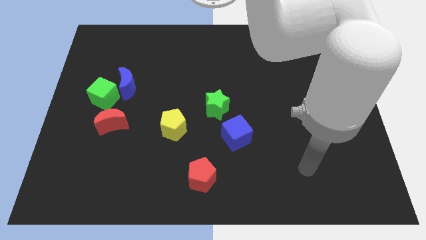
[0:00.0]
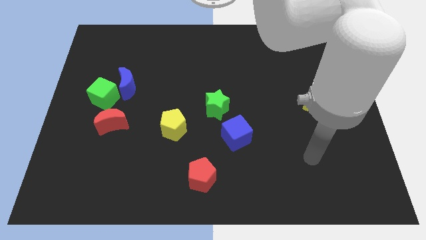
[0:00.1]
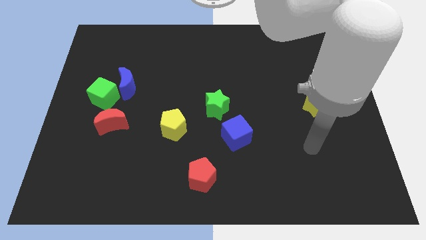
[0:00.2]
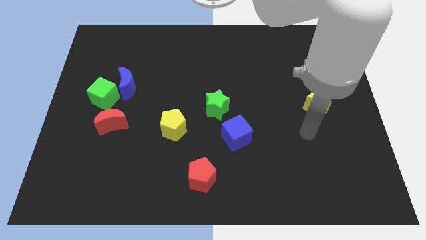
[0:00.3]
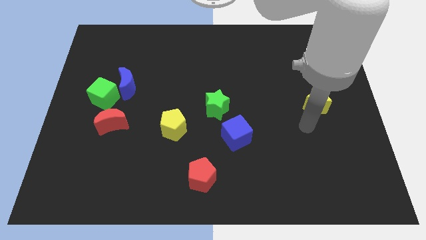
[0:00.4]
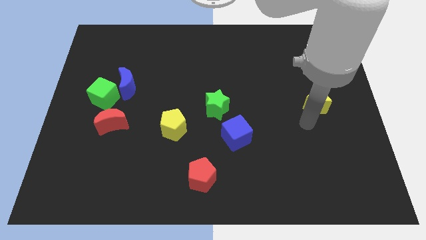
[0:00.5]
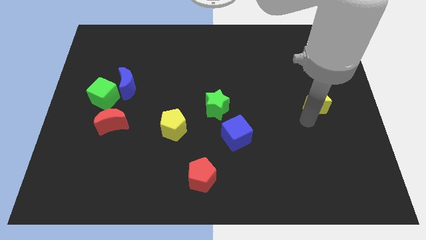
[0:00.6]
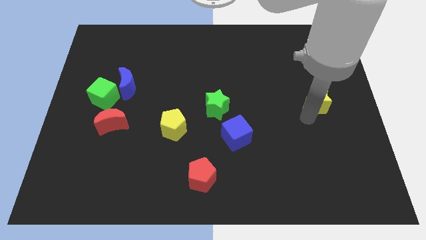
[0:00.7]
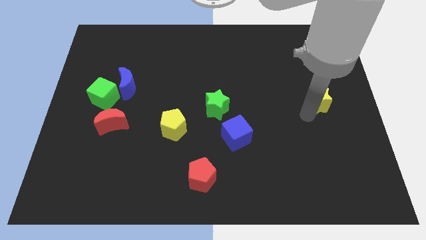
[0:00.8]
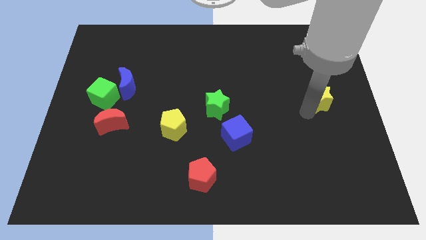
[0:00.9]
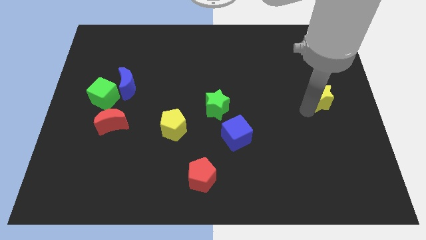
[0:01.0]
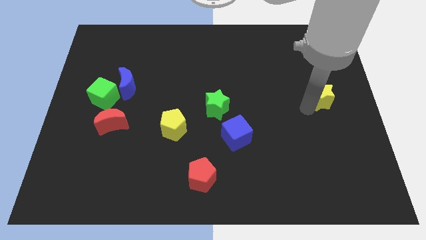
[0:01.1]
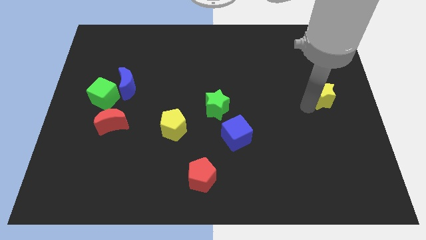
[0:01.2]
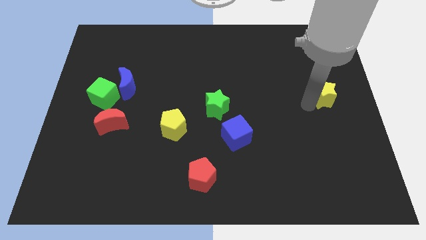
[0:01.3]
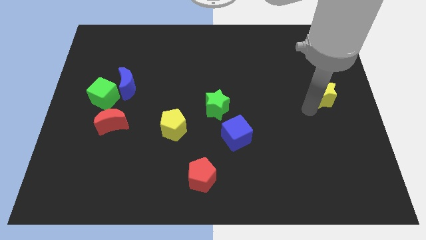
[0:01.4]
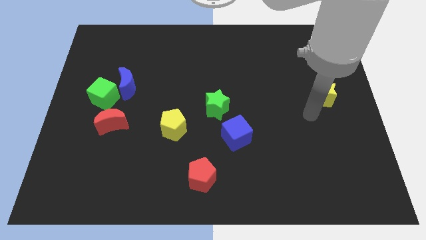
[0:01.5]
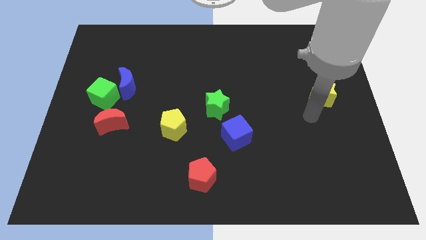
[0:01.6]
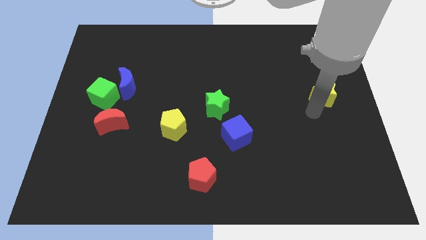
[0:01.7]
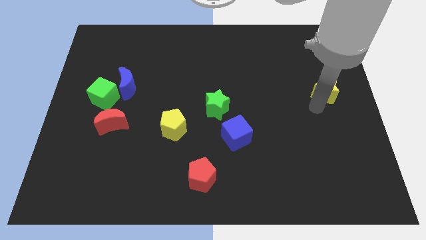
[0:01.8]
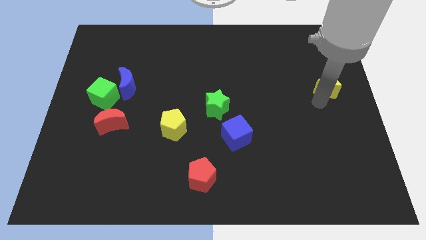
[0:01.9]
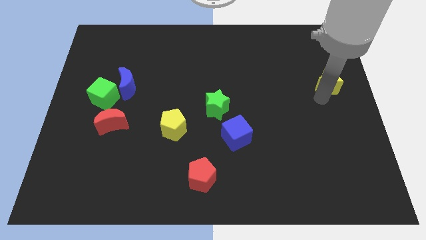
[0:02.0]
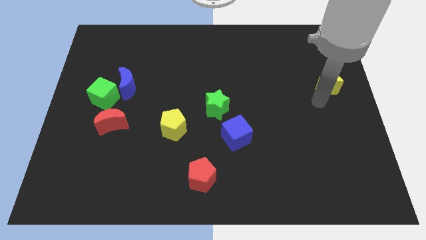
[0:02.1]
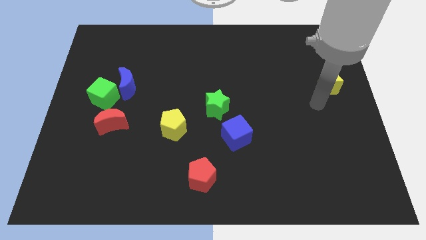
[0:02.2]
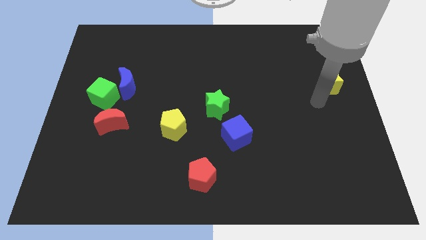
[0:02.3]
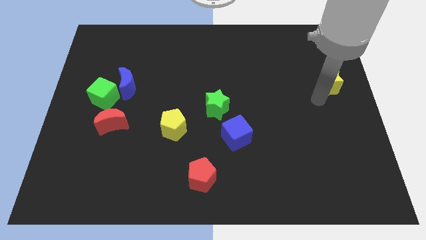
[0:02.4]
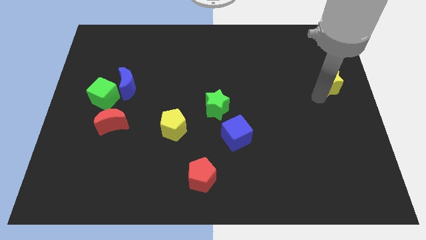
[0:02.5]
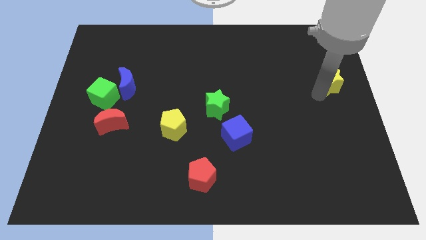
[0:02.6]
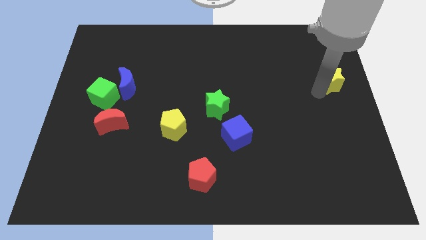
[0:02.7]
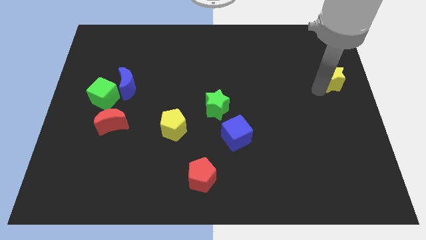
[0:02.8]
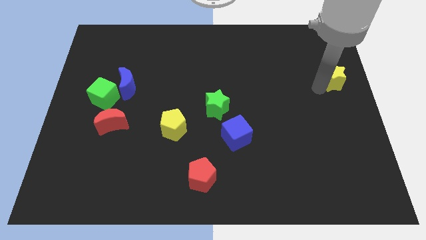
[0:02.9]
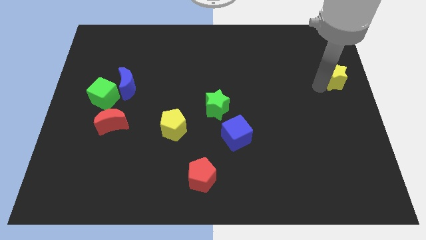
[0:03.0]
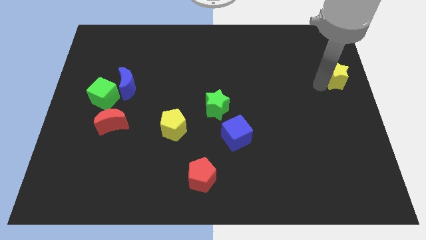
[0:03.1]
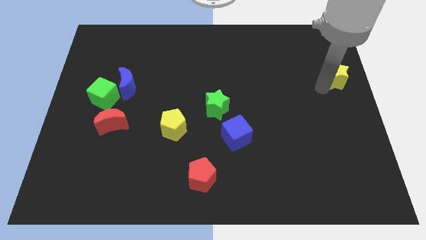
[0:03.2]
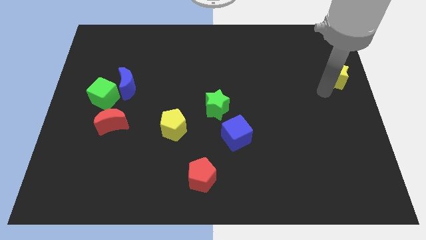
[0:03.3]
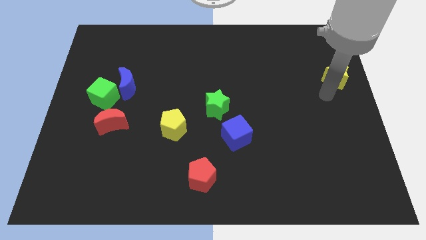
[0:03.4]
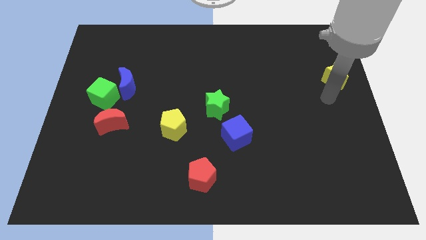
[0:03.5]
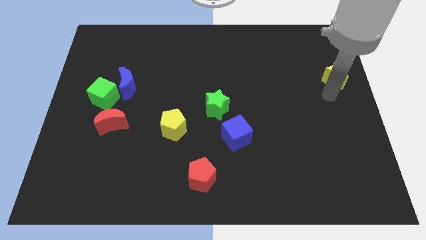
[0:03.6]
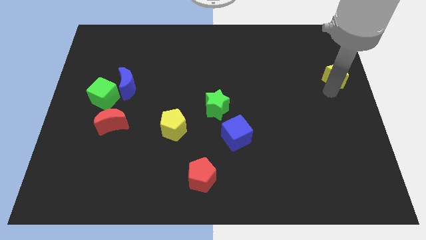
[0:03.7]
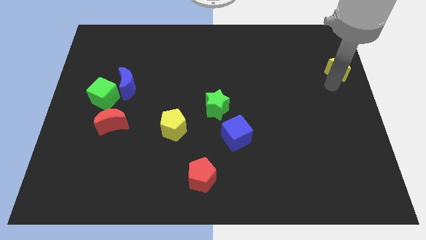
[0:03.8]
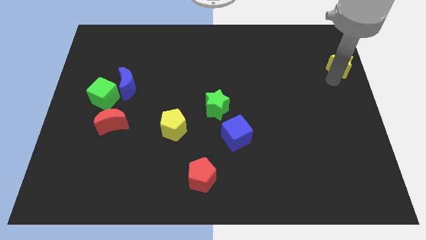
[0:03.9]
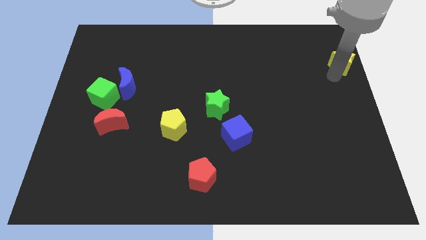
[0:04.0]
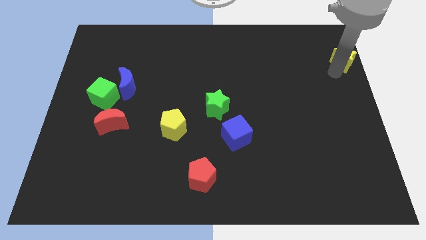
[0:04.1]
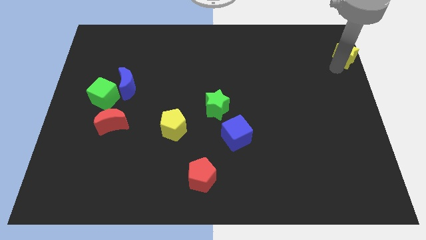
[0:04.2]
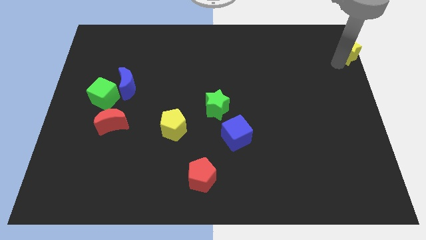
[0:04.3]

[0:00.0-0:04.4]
put the yellow star to the top right

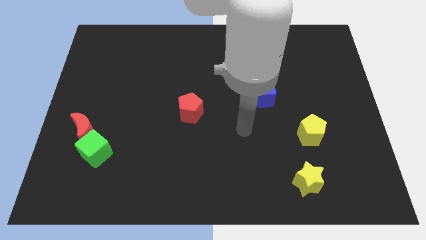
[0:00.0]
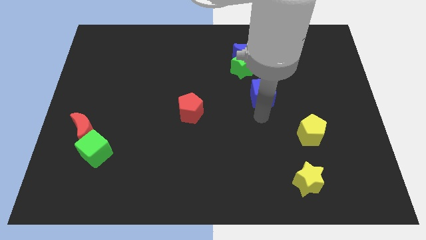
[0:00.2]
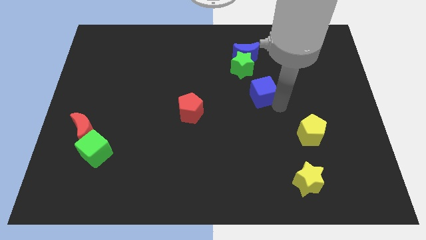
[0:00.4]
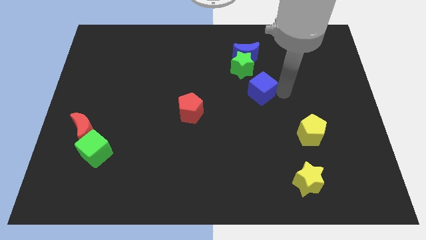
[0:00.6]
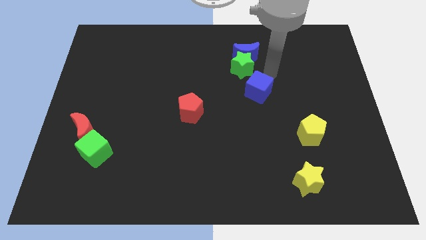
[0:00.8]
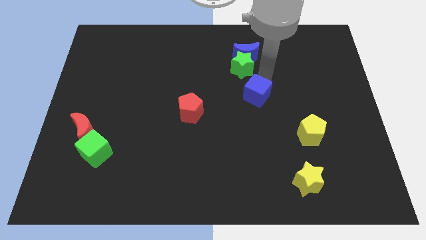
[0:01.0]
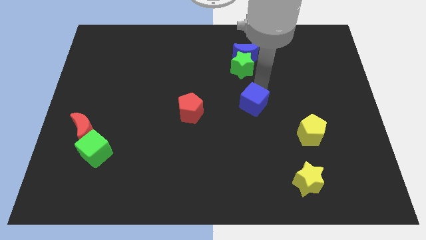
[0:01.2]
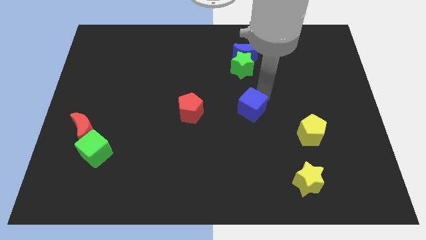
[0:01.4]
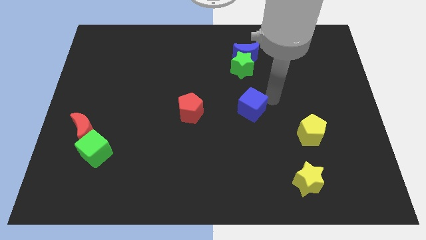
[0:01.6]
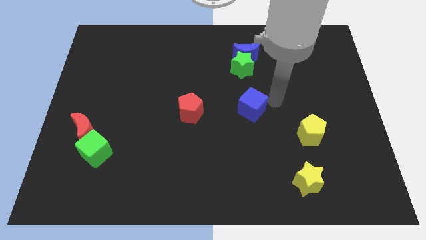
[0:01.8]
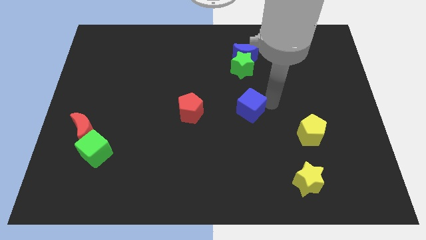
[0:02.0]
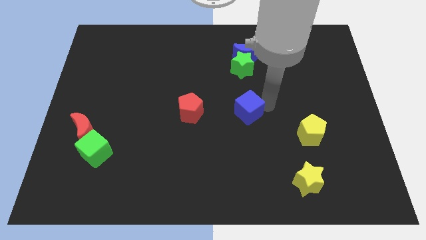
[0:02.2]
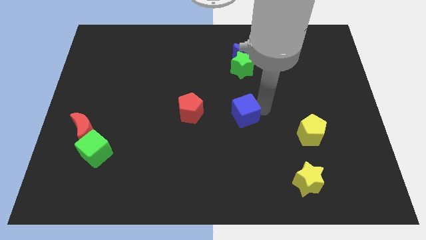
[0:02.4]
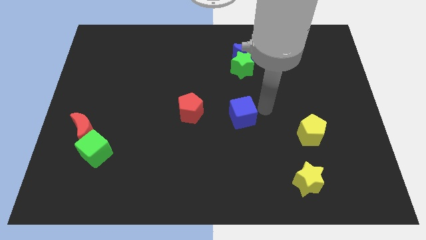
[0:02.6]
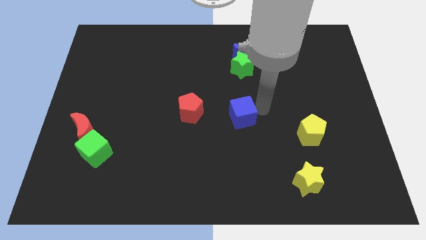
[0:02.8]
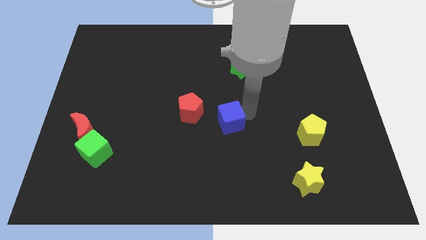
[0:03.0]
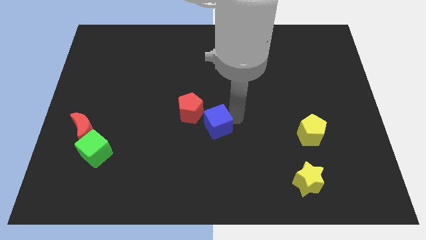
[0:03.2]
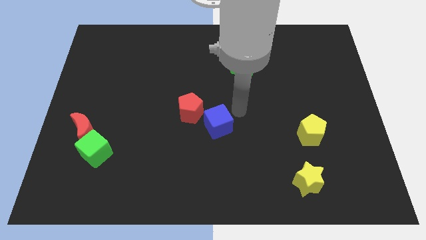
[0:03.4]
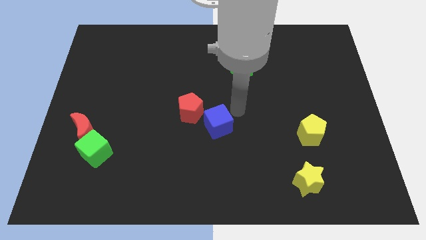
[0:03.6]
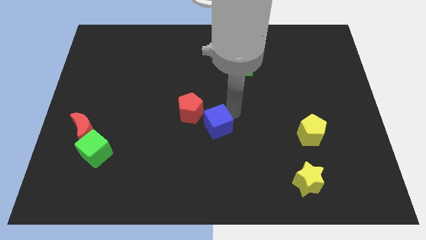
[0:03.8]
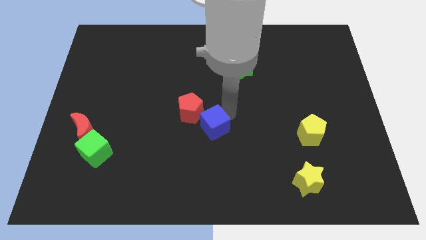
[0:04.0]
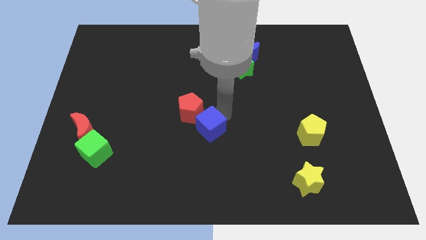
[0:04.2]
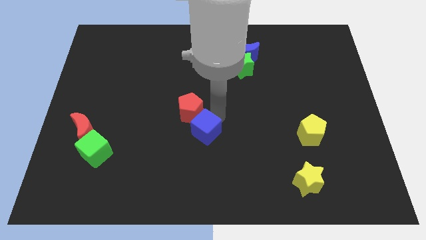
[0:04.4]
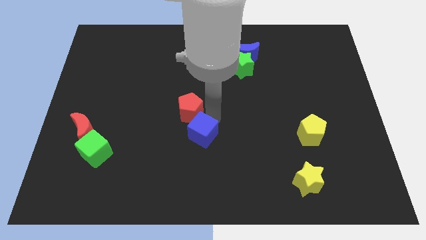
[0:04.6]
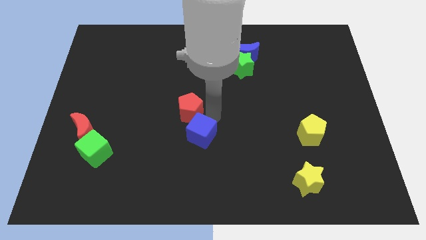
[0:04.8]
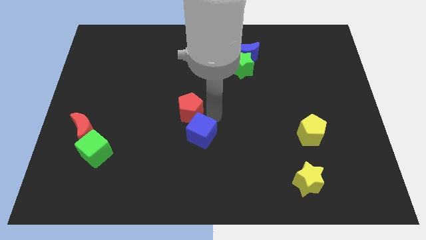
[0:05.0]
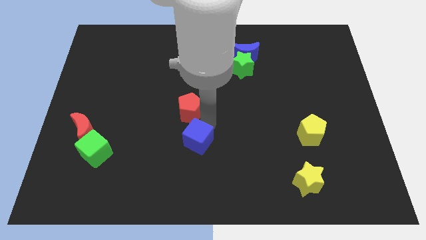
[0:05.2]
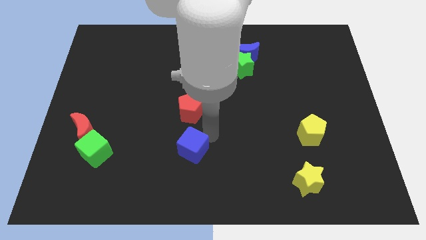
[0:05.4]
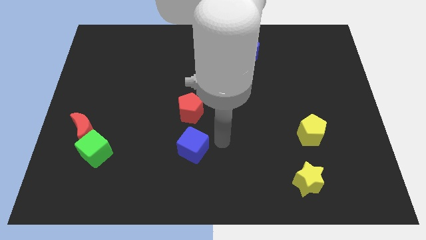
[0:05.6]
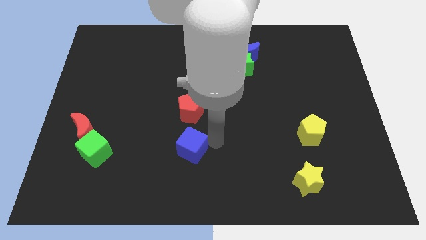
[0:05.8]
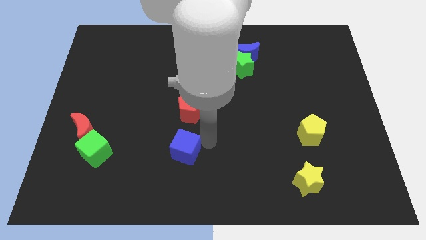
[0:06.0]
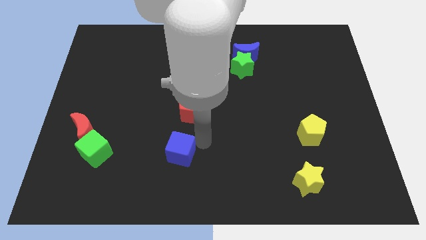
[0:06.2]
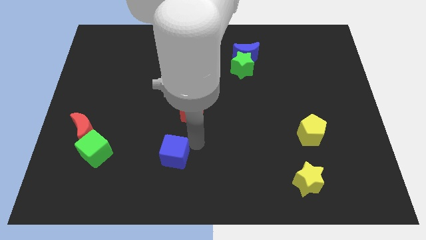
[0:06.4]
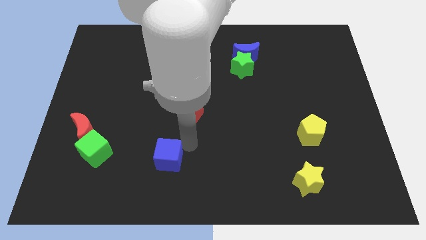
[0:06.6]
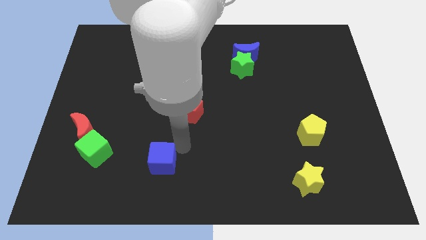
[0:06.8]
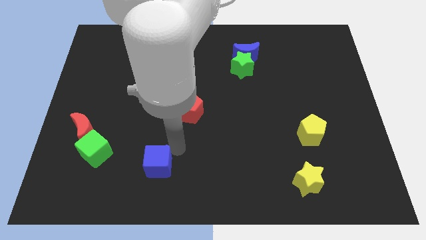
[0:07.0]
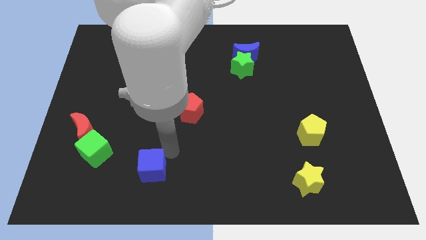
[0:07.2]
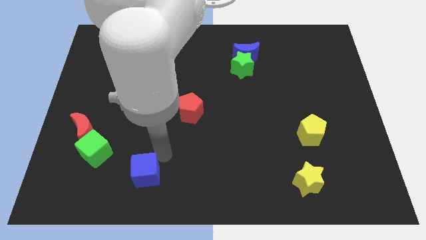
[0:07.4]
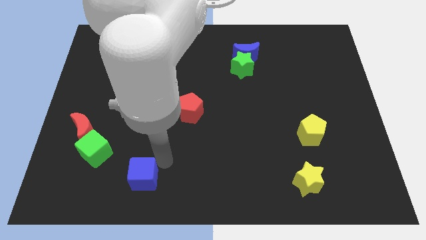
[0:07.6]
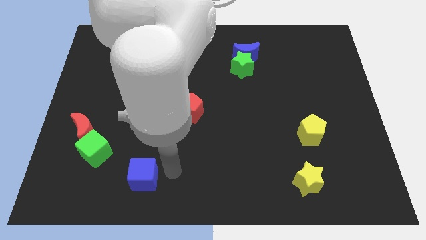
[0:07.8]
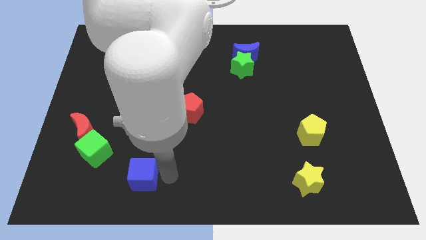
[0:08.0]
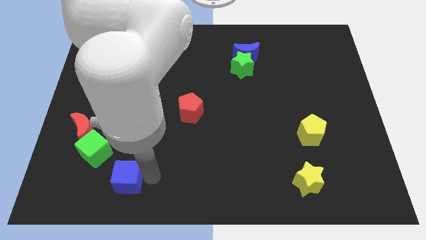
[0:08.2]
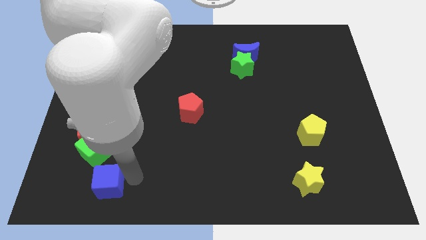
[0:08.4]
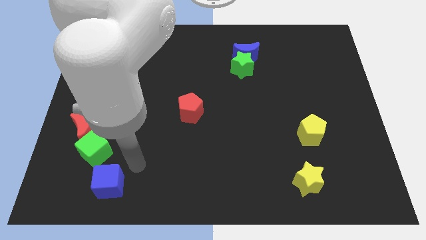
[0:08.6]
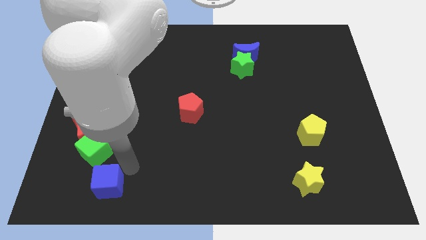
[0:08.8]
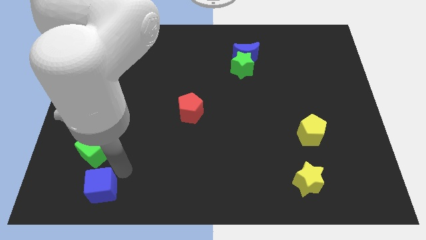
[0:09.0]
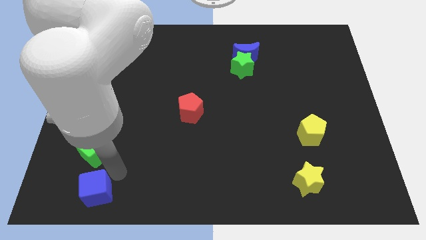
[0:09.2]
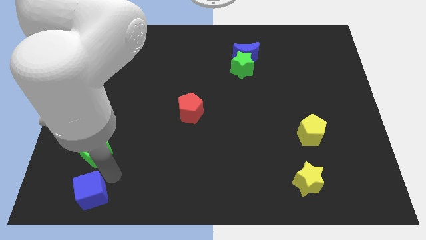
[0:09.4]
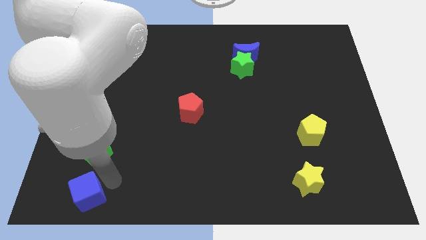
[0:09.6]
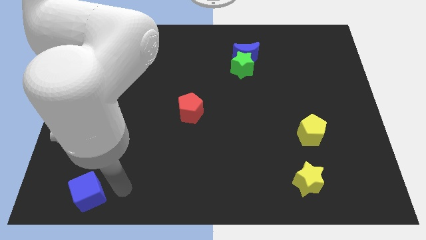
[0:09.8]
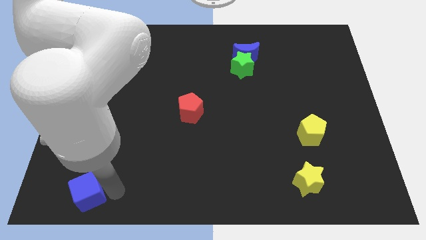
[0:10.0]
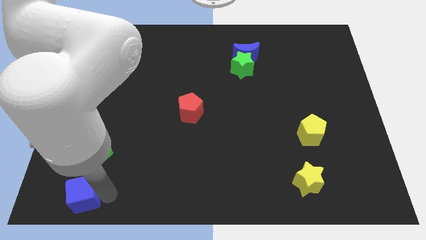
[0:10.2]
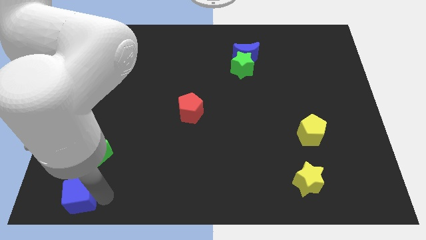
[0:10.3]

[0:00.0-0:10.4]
put the blue cube to the bottom left
